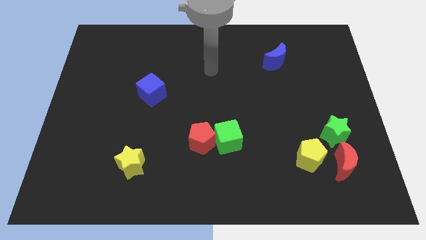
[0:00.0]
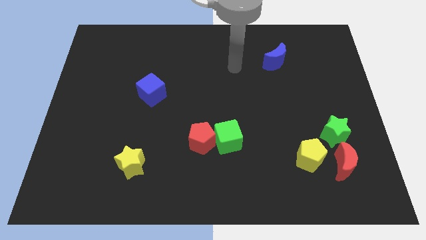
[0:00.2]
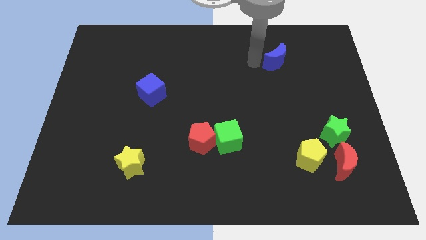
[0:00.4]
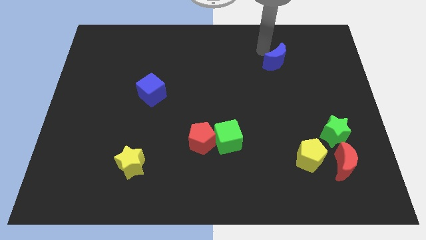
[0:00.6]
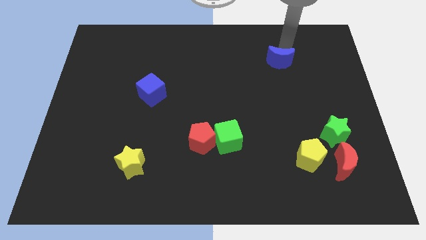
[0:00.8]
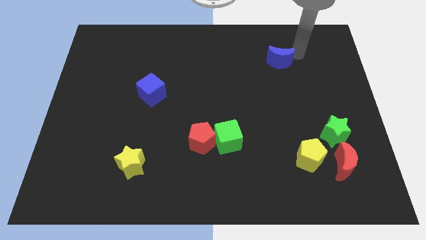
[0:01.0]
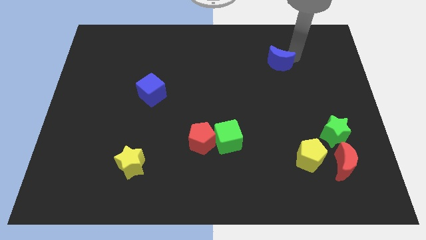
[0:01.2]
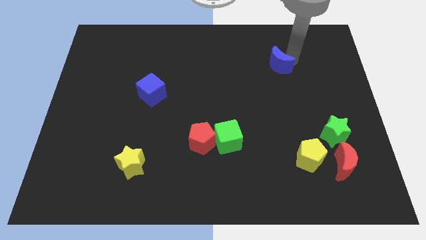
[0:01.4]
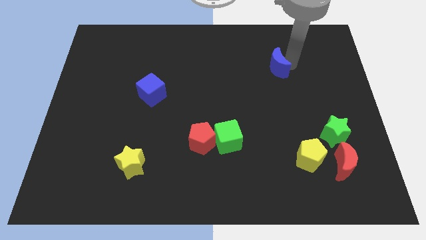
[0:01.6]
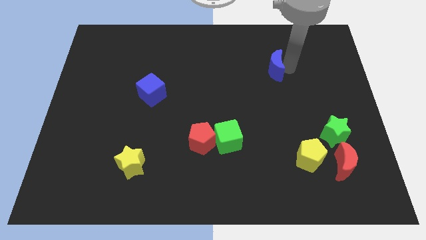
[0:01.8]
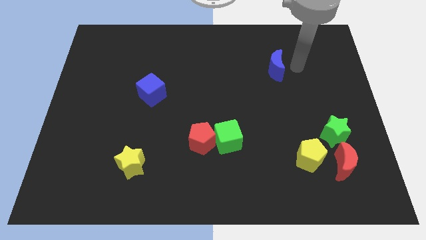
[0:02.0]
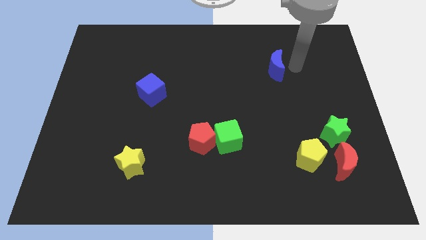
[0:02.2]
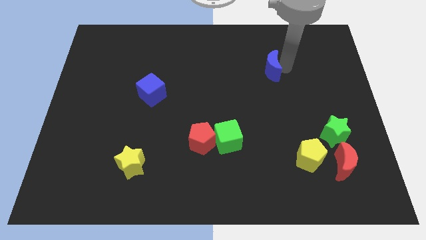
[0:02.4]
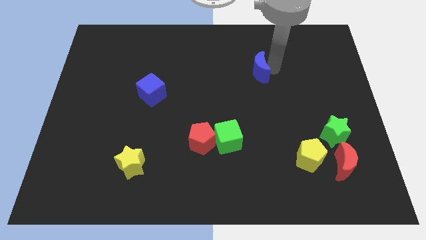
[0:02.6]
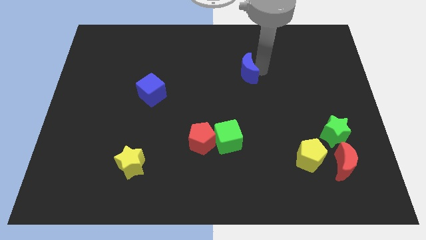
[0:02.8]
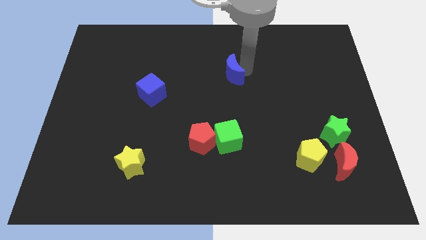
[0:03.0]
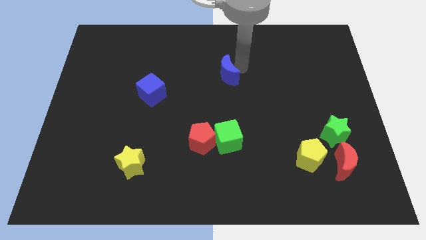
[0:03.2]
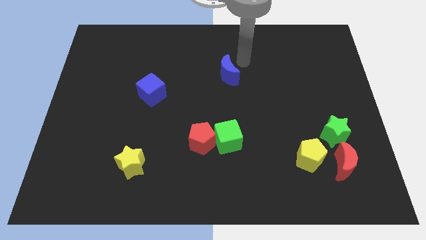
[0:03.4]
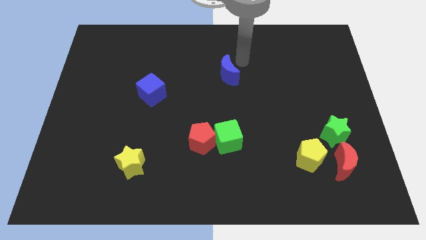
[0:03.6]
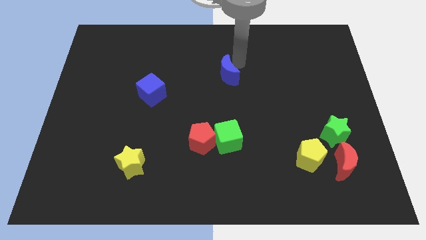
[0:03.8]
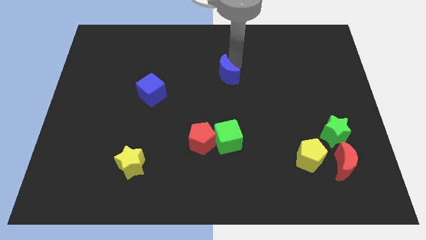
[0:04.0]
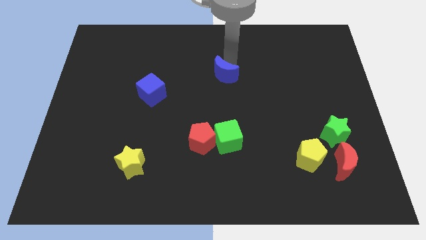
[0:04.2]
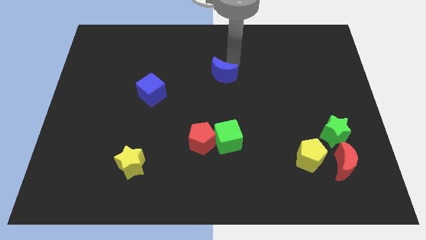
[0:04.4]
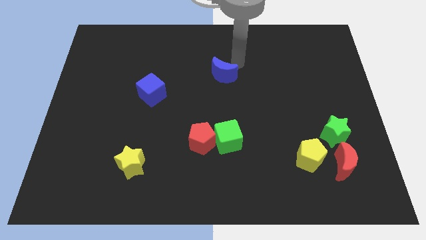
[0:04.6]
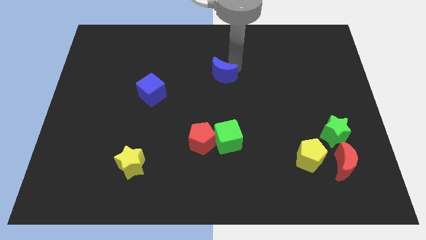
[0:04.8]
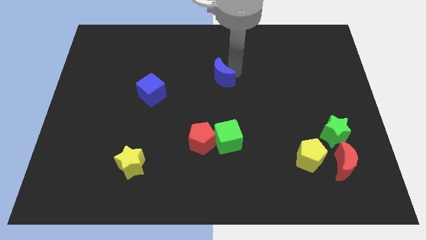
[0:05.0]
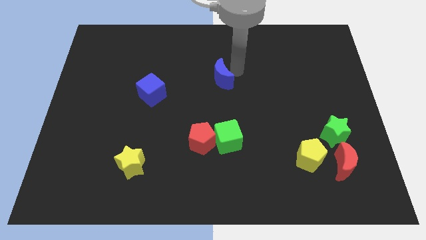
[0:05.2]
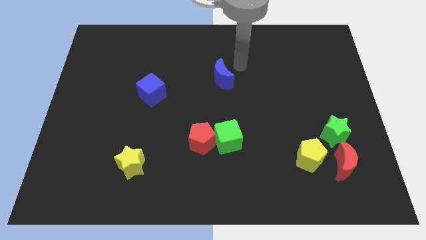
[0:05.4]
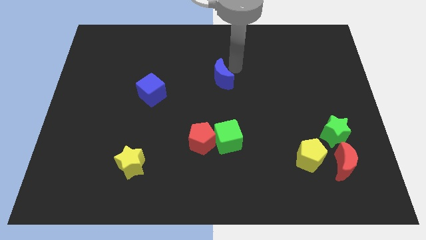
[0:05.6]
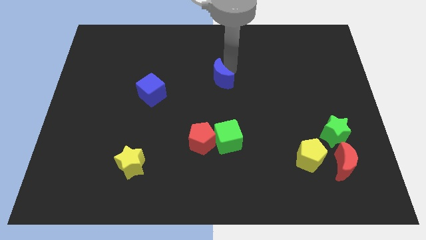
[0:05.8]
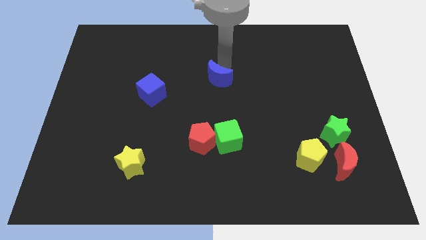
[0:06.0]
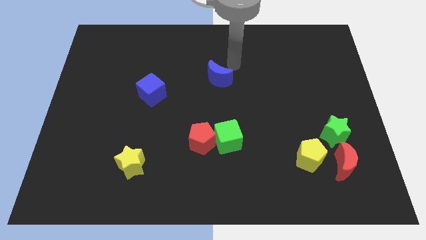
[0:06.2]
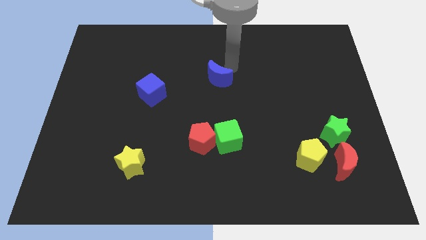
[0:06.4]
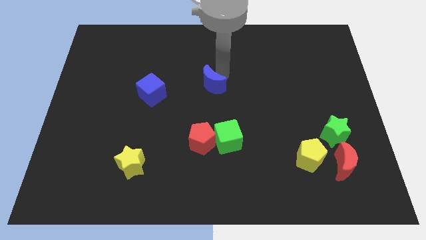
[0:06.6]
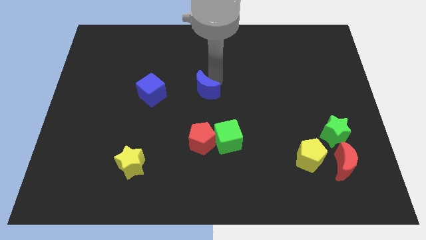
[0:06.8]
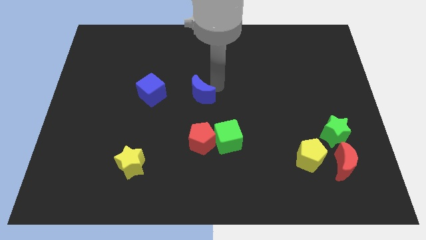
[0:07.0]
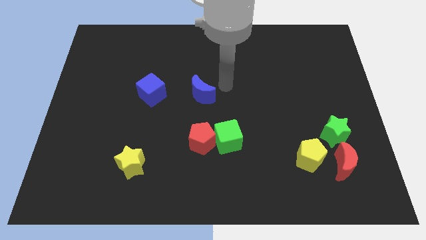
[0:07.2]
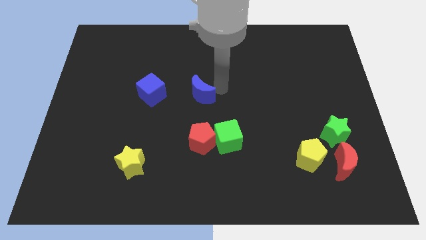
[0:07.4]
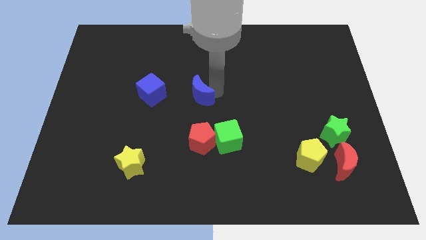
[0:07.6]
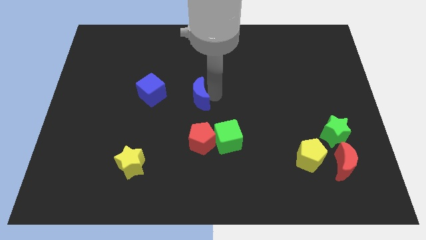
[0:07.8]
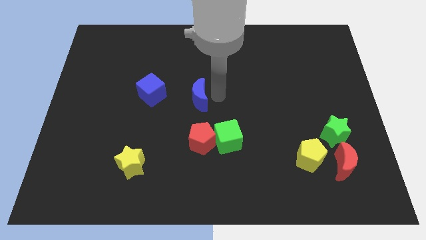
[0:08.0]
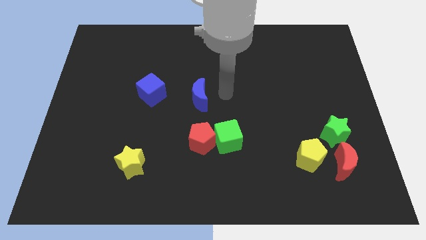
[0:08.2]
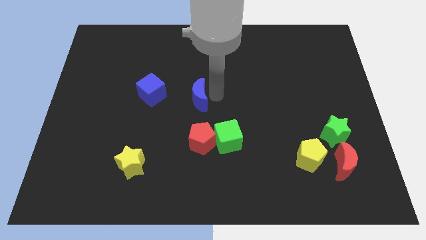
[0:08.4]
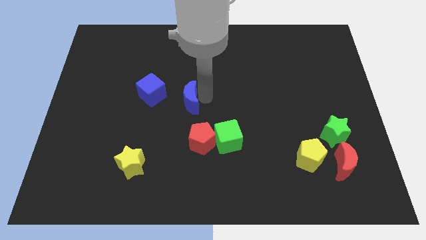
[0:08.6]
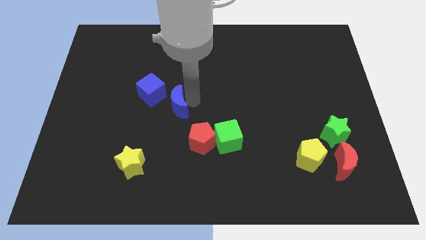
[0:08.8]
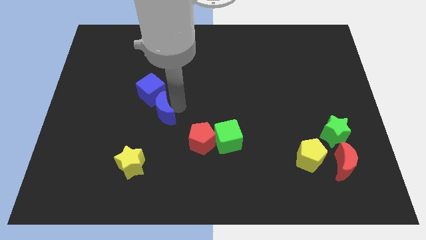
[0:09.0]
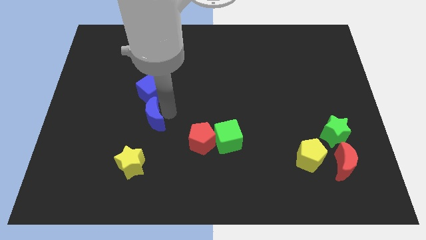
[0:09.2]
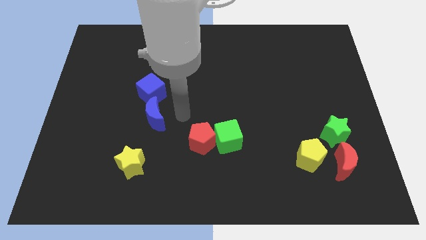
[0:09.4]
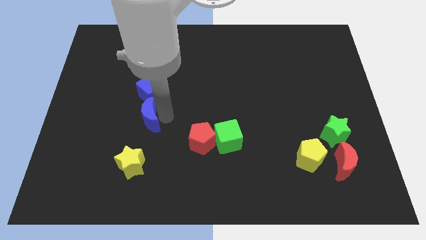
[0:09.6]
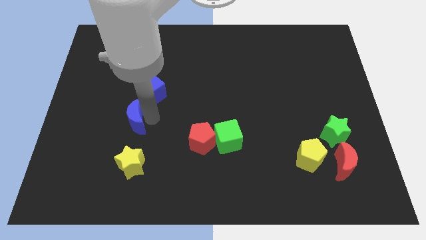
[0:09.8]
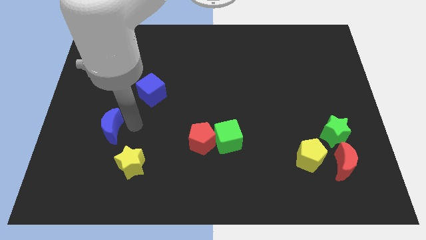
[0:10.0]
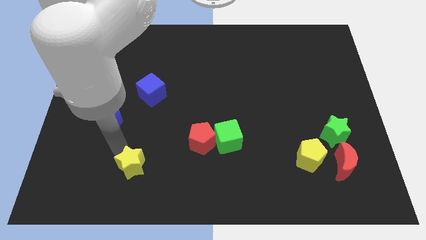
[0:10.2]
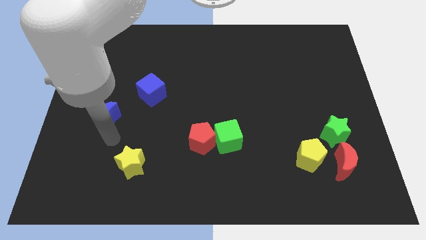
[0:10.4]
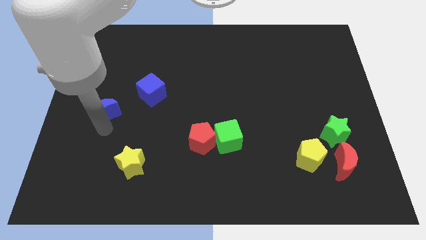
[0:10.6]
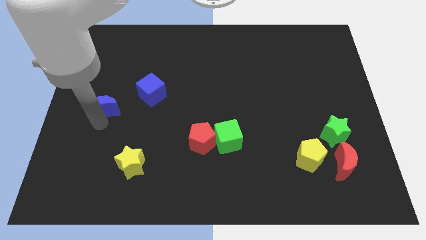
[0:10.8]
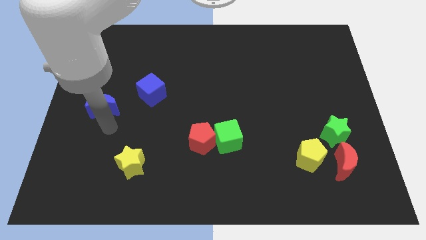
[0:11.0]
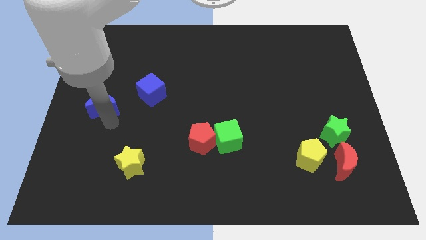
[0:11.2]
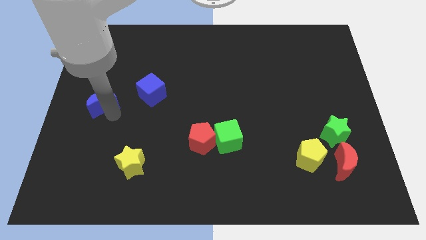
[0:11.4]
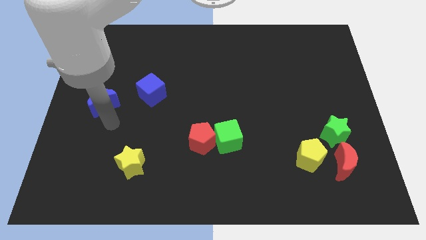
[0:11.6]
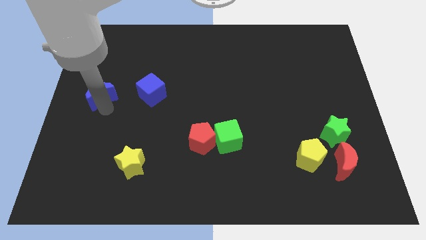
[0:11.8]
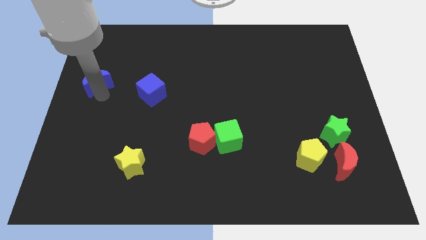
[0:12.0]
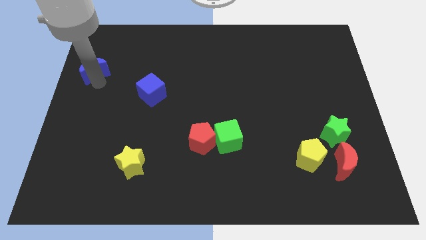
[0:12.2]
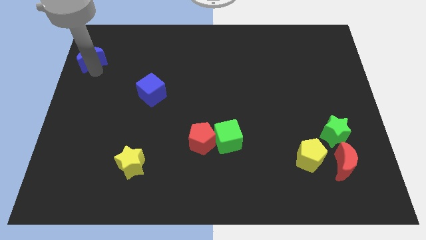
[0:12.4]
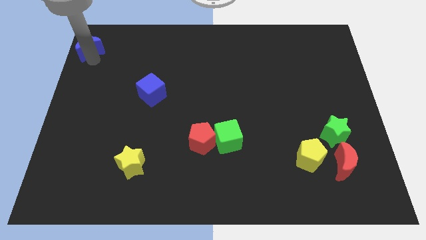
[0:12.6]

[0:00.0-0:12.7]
move the blue moon to the top left of the board

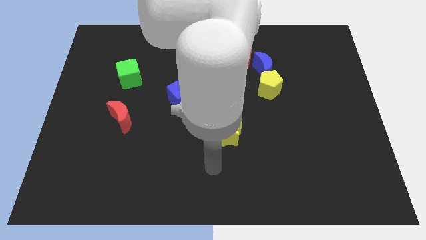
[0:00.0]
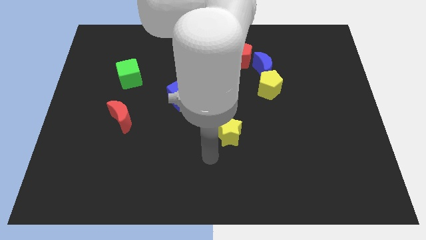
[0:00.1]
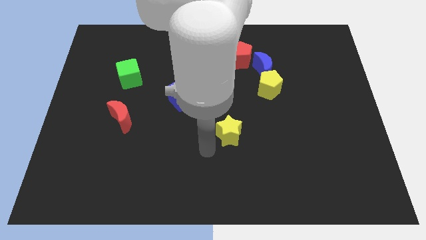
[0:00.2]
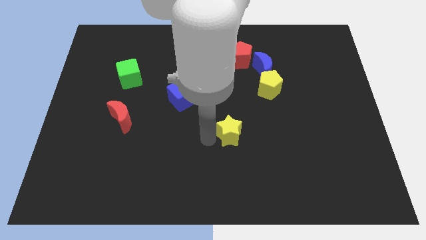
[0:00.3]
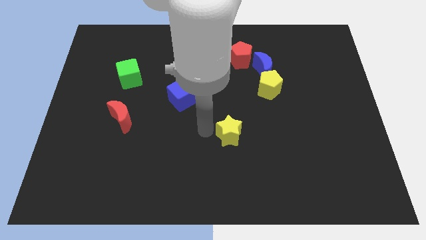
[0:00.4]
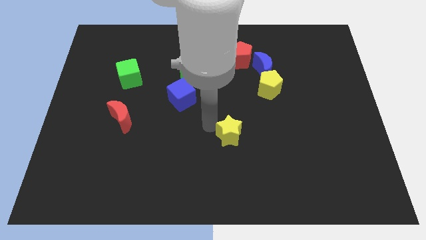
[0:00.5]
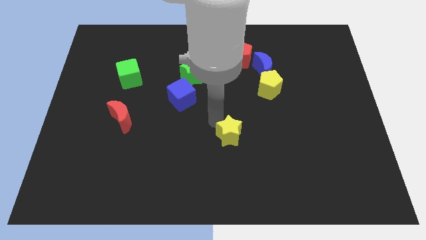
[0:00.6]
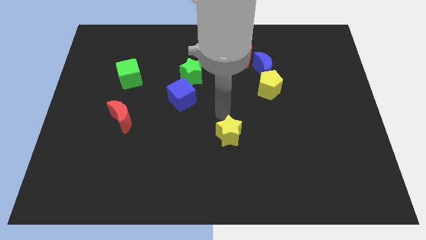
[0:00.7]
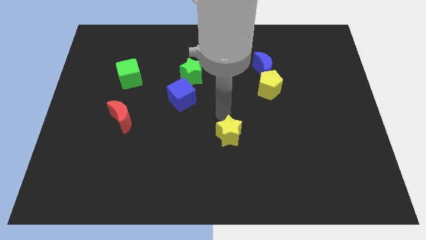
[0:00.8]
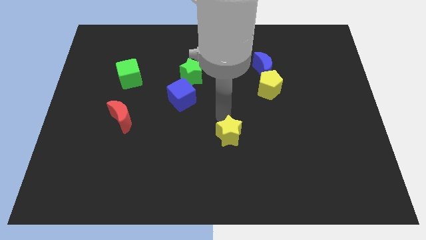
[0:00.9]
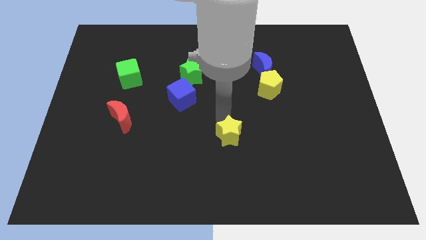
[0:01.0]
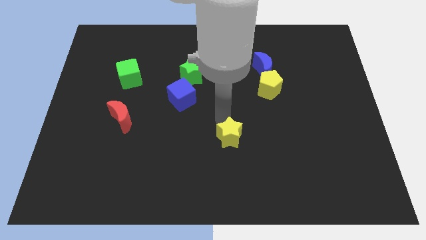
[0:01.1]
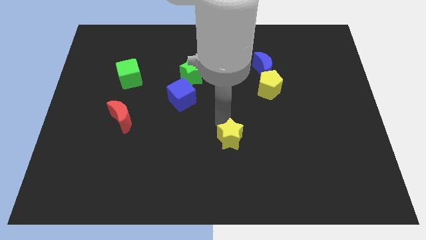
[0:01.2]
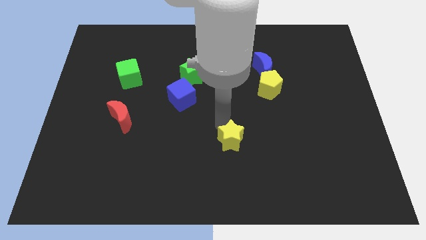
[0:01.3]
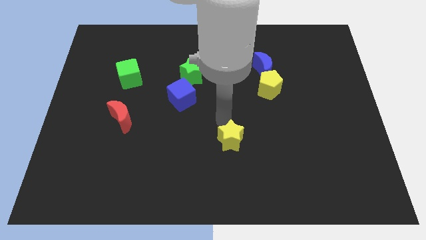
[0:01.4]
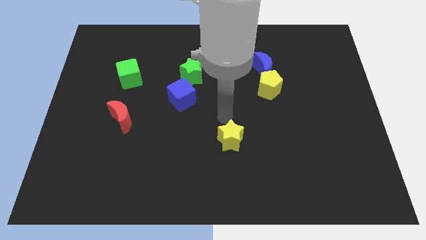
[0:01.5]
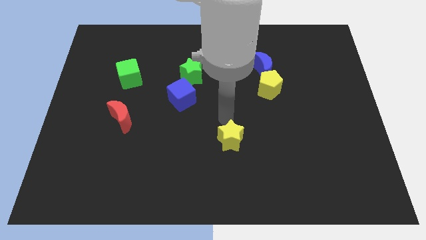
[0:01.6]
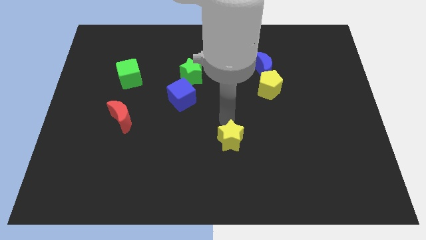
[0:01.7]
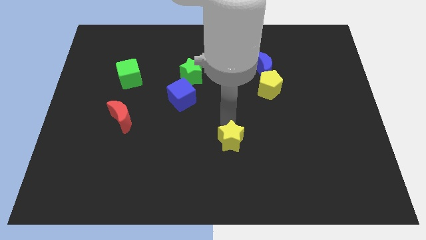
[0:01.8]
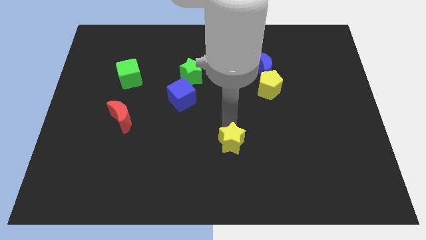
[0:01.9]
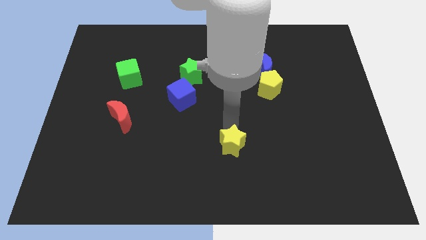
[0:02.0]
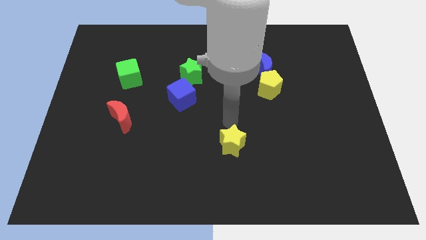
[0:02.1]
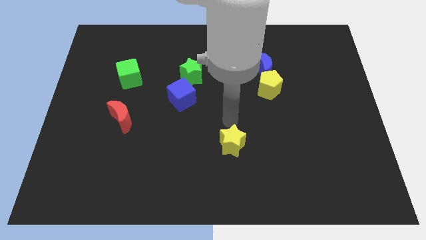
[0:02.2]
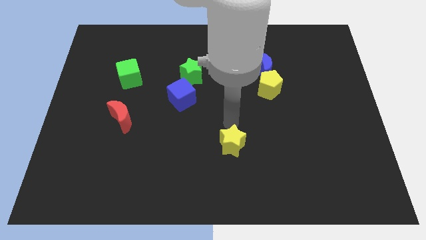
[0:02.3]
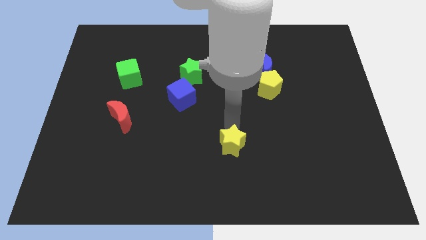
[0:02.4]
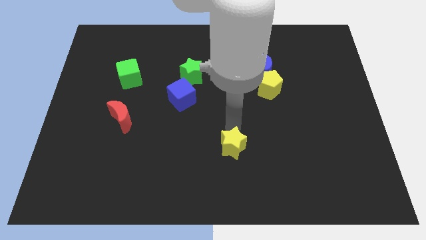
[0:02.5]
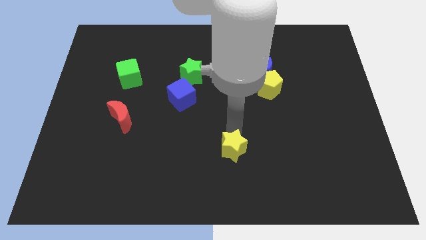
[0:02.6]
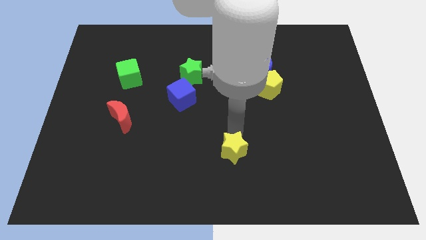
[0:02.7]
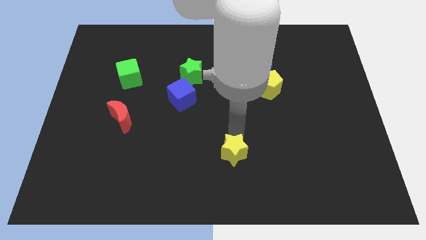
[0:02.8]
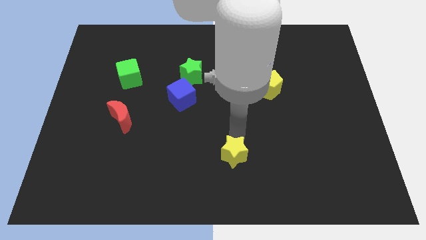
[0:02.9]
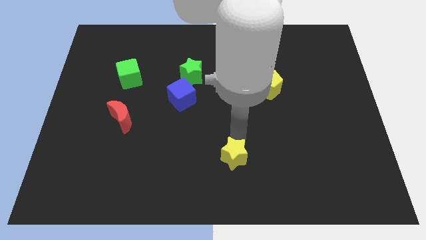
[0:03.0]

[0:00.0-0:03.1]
slide the yellow star to the bottom
